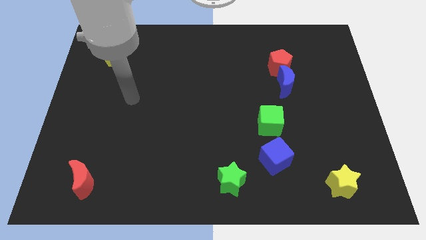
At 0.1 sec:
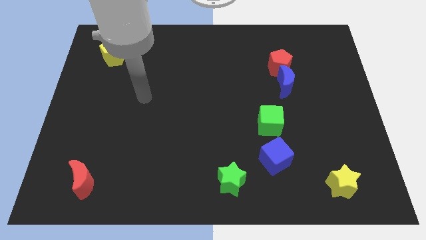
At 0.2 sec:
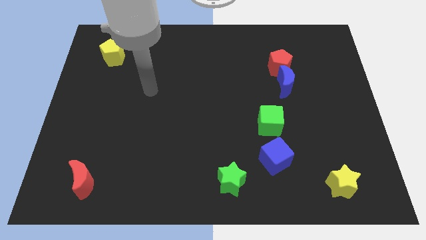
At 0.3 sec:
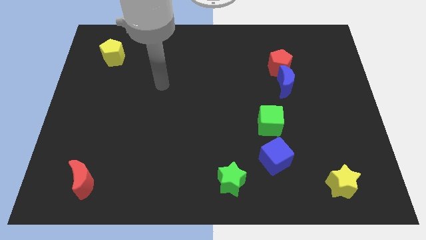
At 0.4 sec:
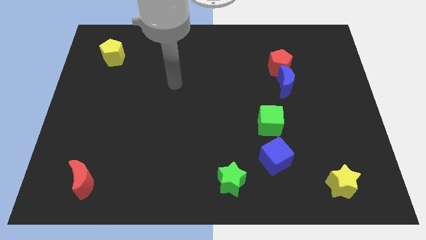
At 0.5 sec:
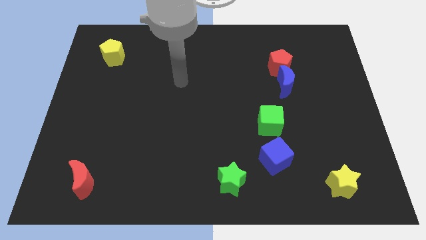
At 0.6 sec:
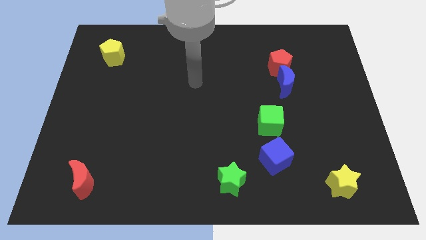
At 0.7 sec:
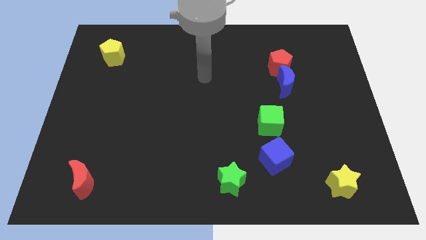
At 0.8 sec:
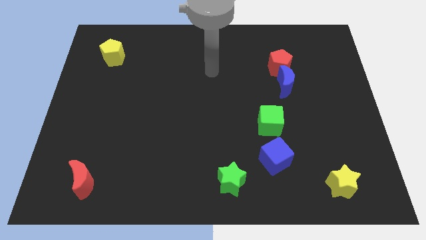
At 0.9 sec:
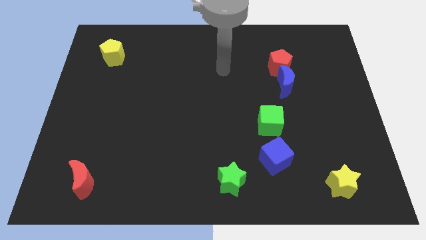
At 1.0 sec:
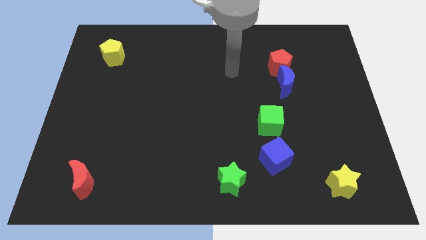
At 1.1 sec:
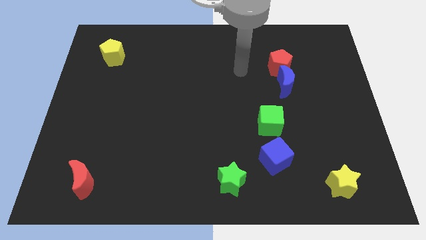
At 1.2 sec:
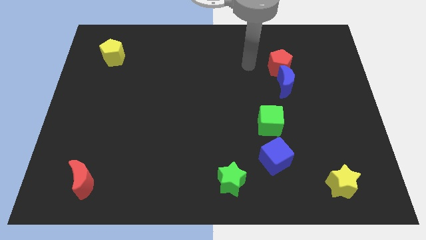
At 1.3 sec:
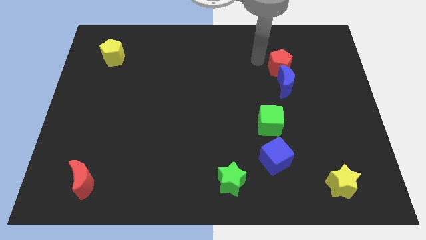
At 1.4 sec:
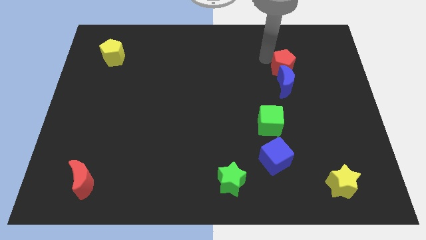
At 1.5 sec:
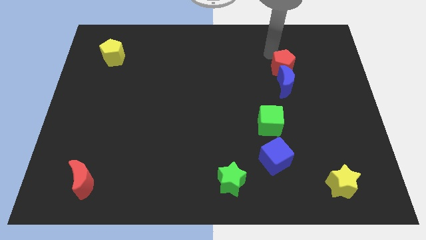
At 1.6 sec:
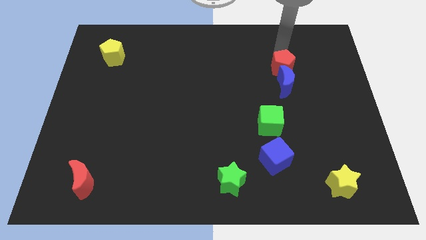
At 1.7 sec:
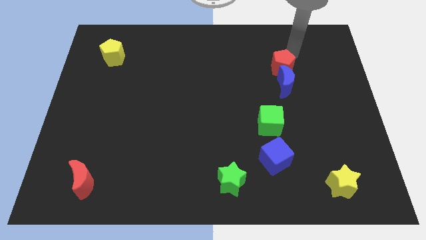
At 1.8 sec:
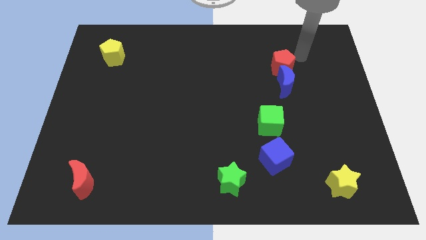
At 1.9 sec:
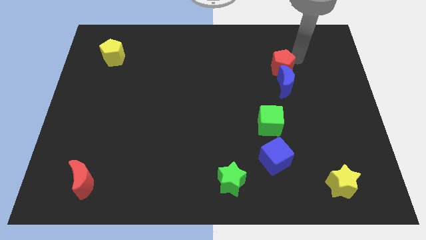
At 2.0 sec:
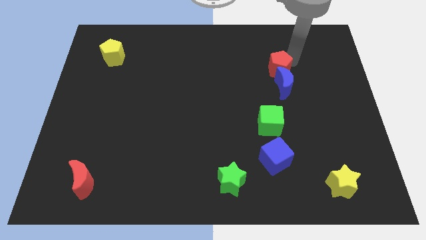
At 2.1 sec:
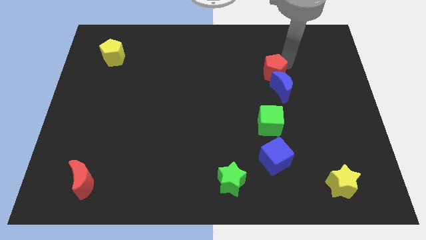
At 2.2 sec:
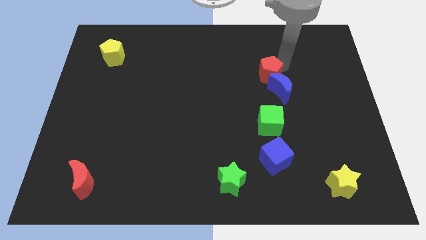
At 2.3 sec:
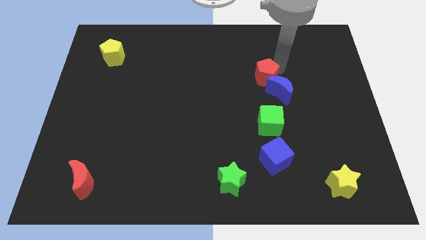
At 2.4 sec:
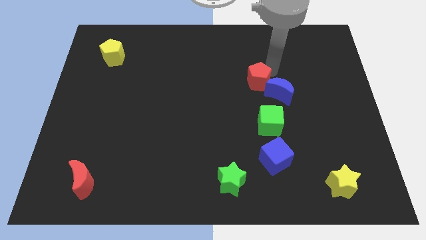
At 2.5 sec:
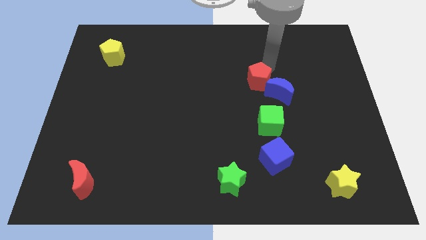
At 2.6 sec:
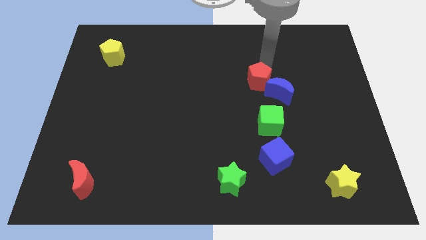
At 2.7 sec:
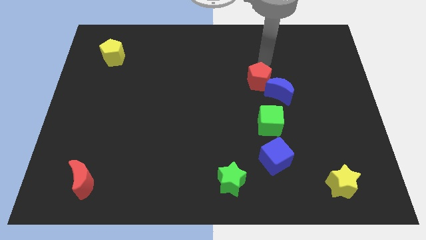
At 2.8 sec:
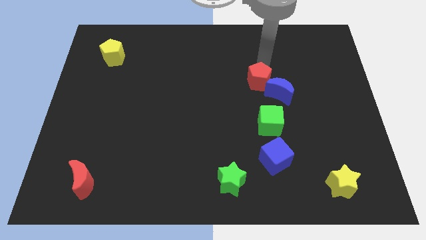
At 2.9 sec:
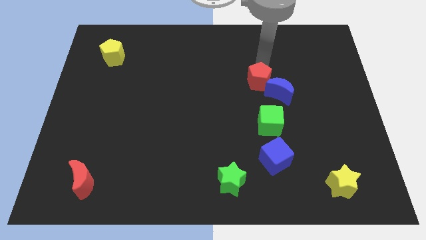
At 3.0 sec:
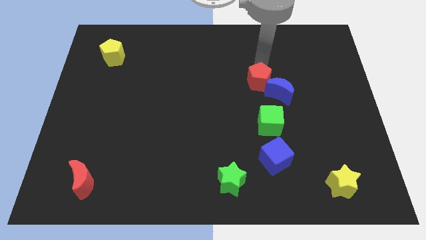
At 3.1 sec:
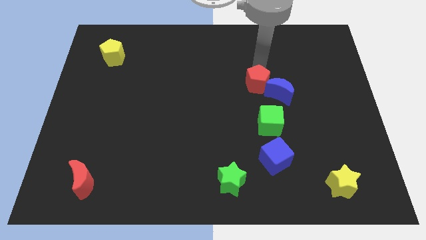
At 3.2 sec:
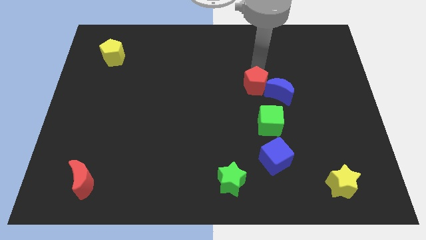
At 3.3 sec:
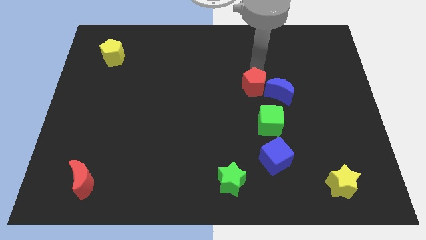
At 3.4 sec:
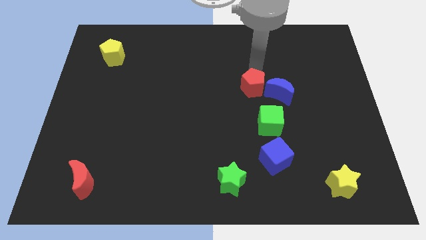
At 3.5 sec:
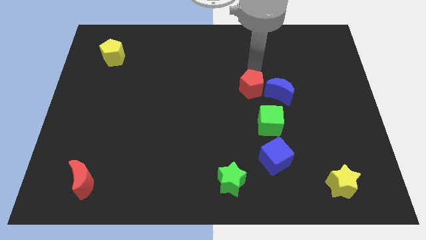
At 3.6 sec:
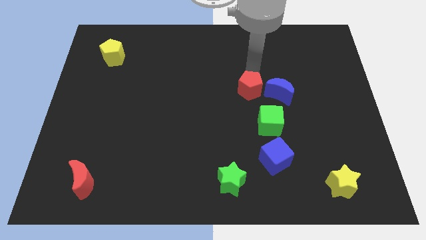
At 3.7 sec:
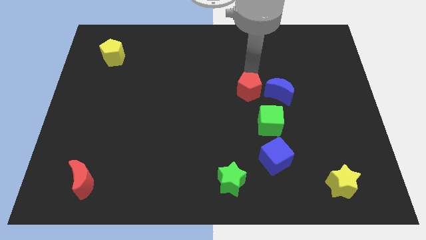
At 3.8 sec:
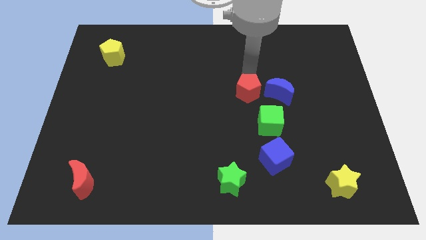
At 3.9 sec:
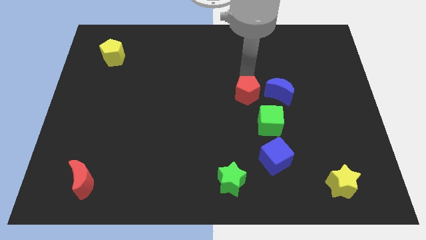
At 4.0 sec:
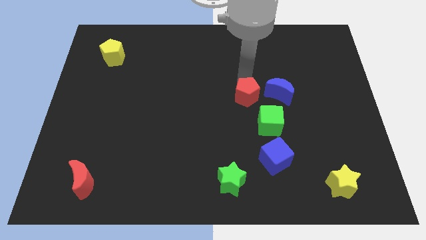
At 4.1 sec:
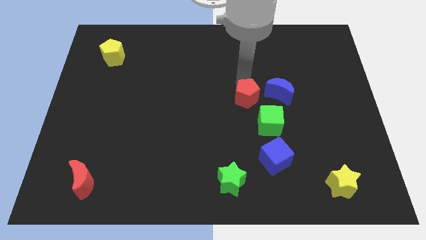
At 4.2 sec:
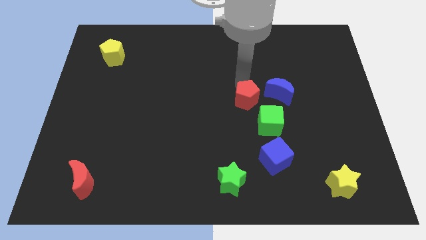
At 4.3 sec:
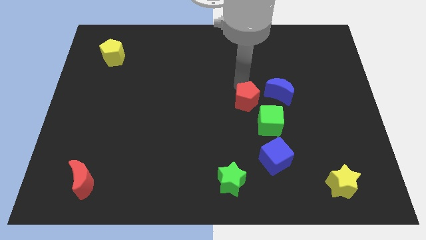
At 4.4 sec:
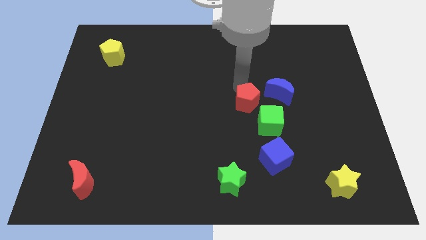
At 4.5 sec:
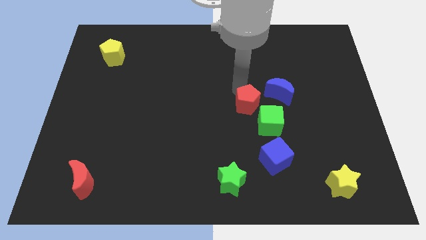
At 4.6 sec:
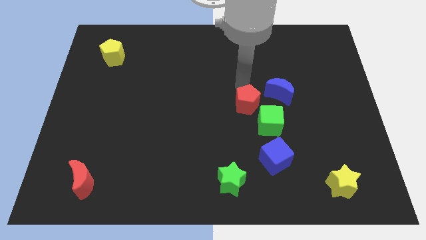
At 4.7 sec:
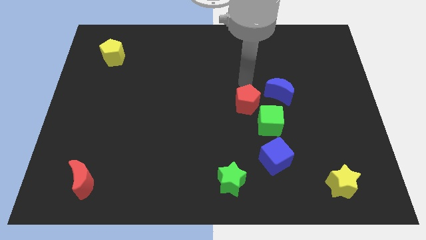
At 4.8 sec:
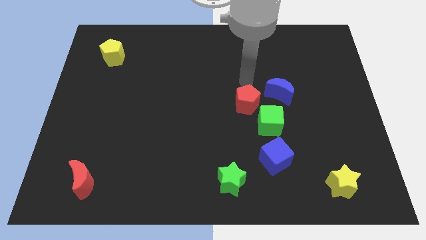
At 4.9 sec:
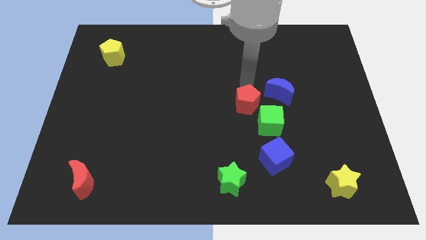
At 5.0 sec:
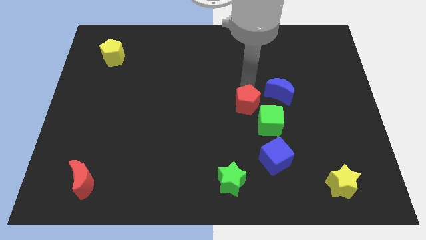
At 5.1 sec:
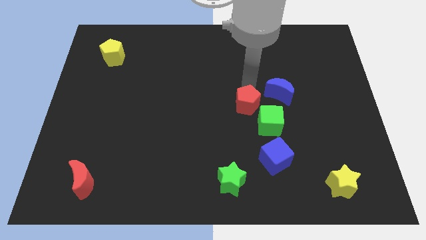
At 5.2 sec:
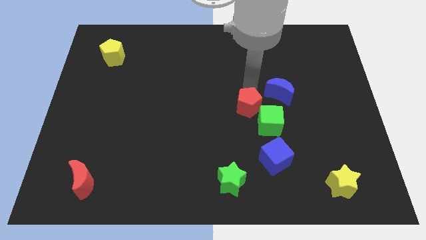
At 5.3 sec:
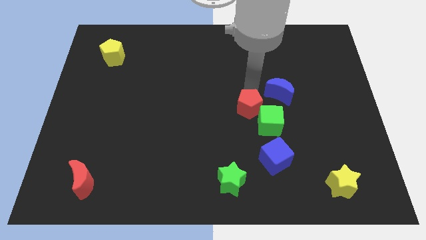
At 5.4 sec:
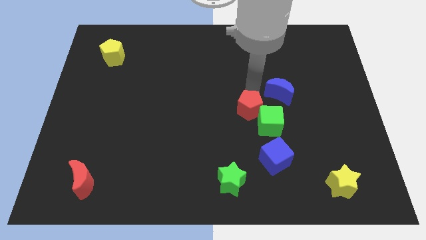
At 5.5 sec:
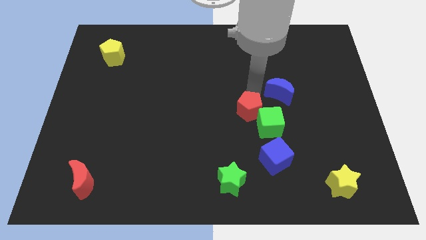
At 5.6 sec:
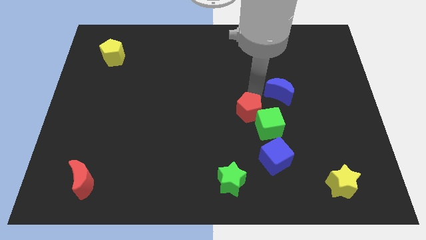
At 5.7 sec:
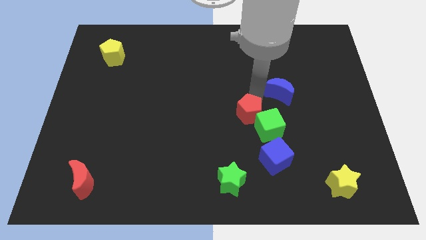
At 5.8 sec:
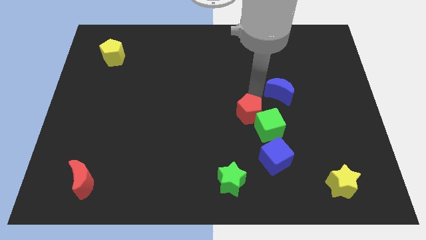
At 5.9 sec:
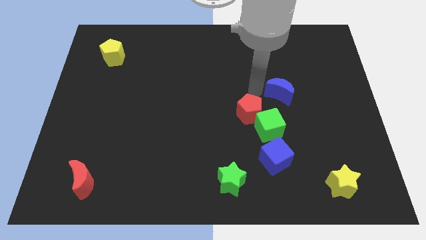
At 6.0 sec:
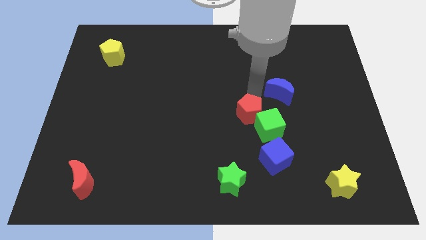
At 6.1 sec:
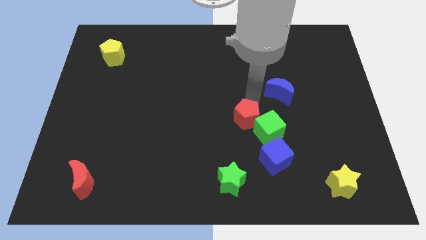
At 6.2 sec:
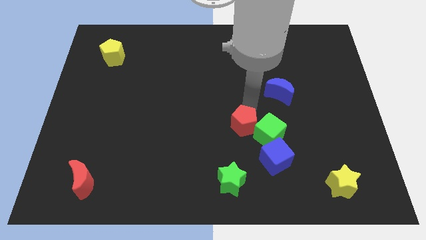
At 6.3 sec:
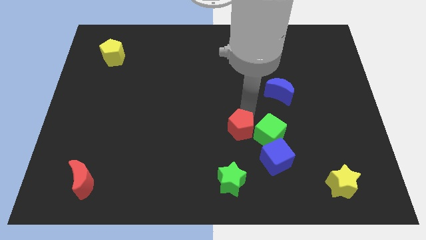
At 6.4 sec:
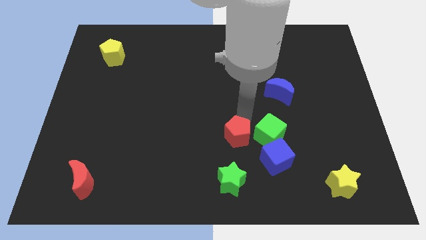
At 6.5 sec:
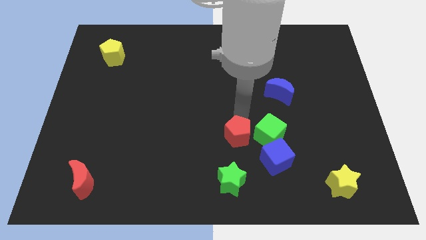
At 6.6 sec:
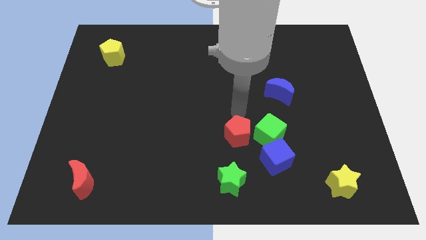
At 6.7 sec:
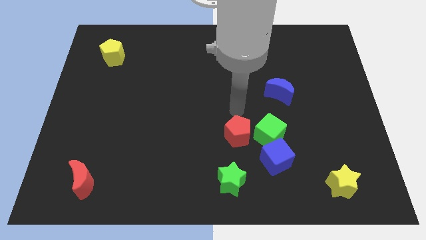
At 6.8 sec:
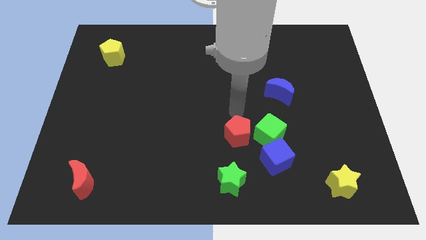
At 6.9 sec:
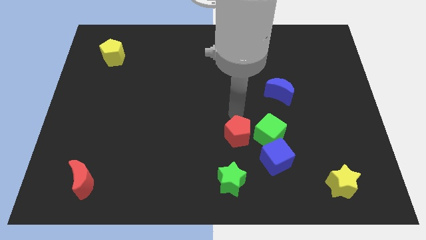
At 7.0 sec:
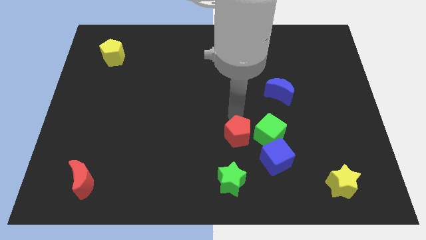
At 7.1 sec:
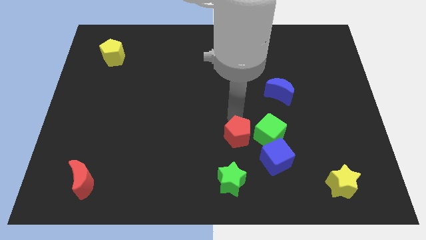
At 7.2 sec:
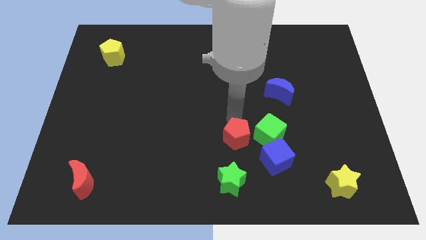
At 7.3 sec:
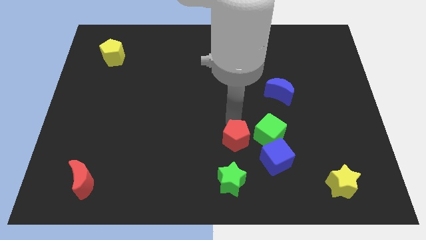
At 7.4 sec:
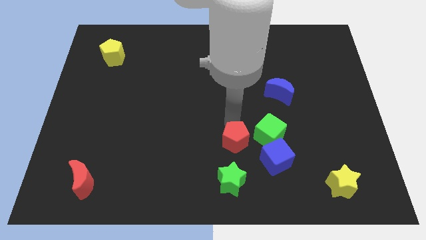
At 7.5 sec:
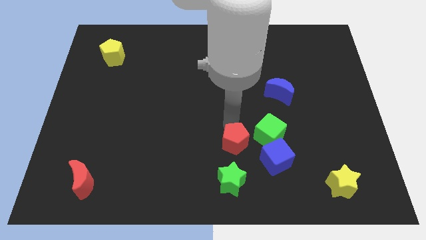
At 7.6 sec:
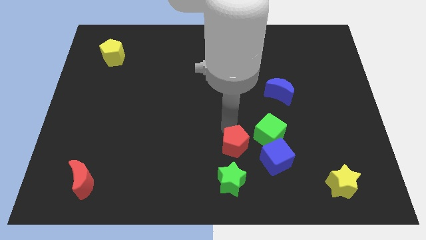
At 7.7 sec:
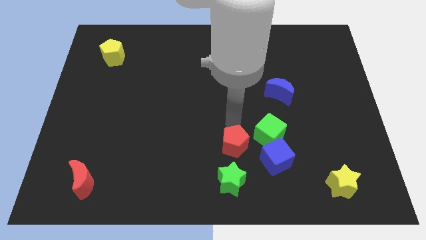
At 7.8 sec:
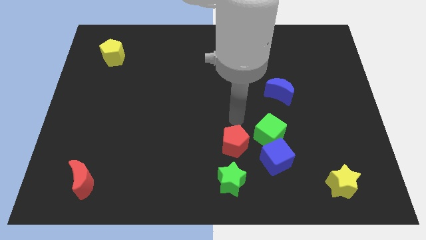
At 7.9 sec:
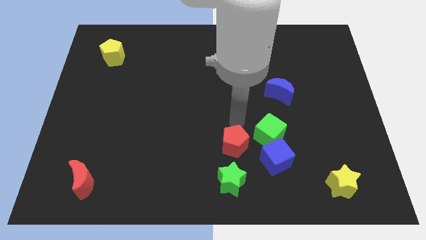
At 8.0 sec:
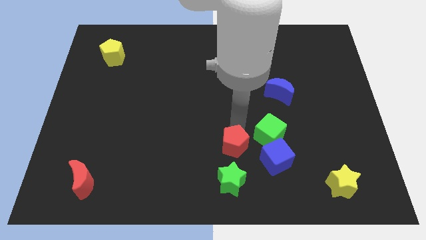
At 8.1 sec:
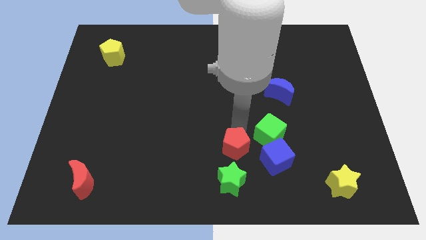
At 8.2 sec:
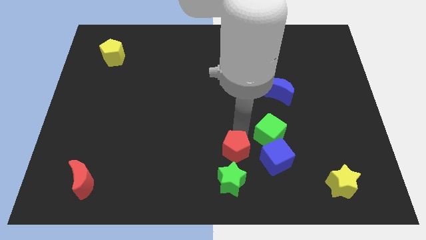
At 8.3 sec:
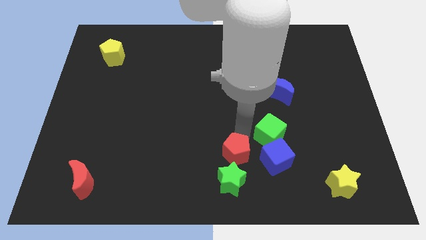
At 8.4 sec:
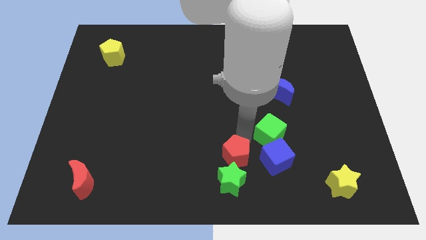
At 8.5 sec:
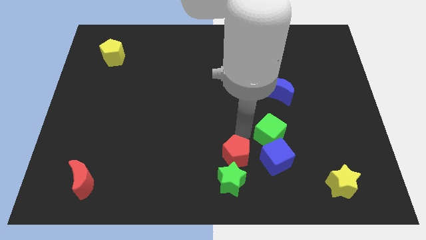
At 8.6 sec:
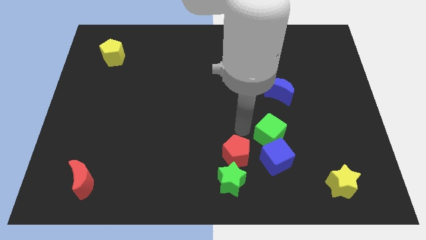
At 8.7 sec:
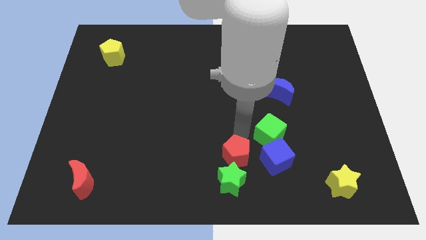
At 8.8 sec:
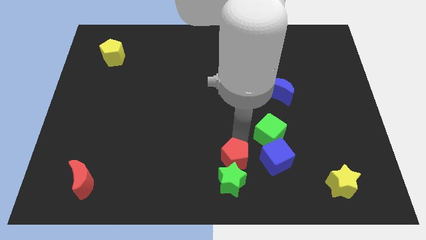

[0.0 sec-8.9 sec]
push the red pentagon next to the green star
